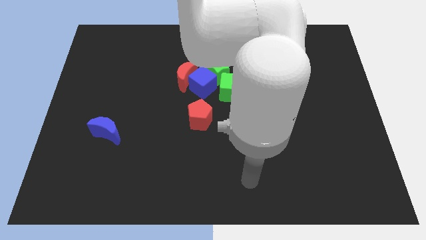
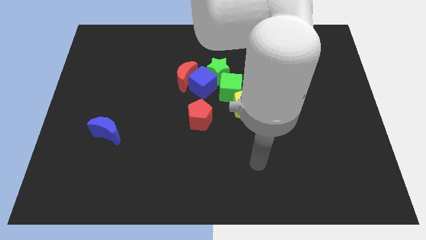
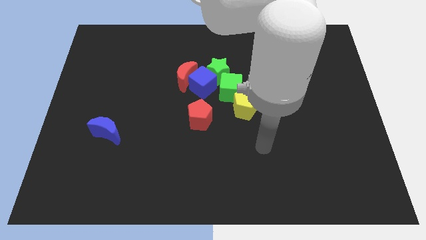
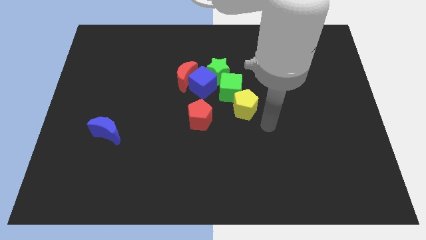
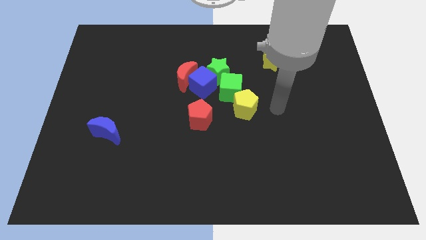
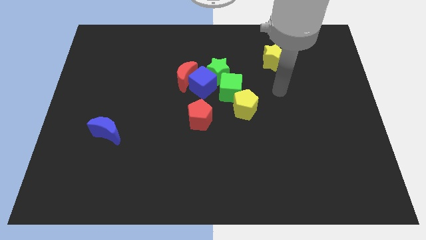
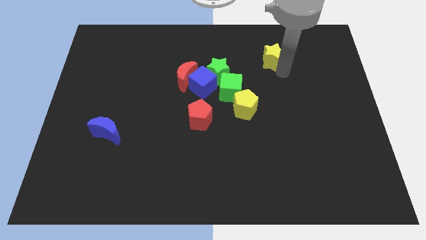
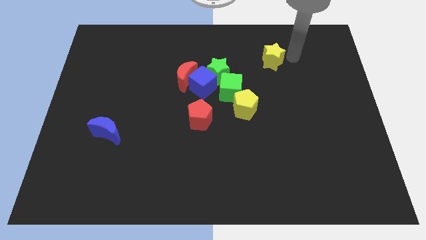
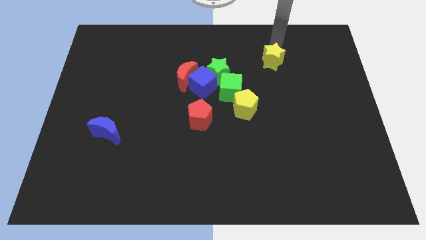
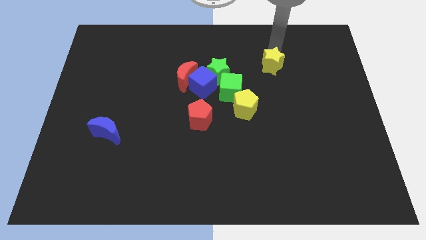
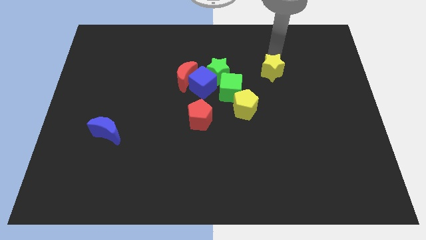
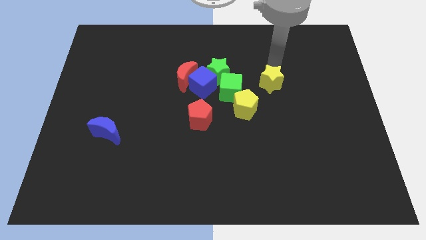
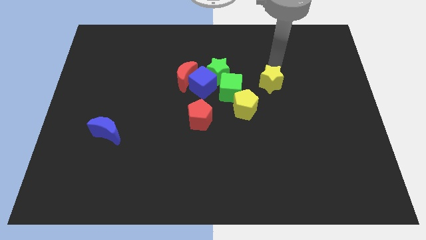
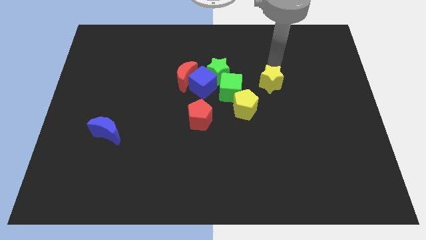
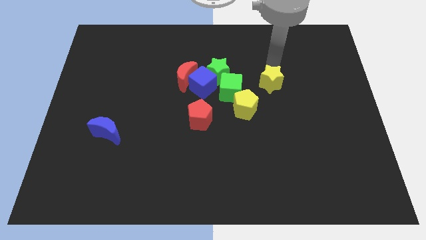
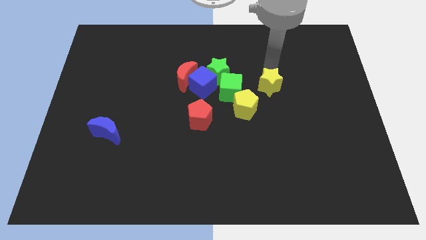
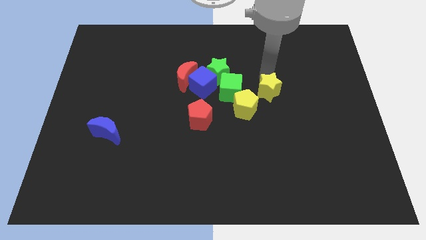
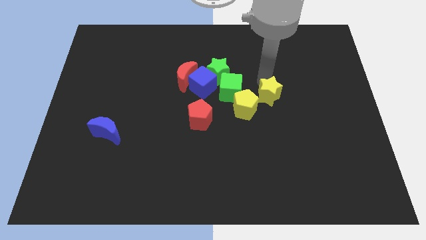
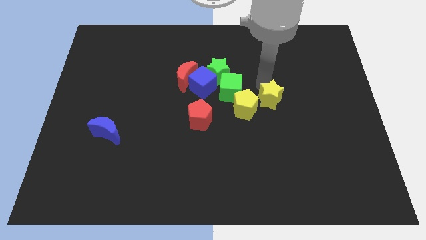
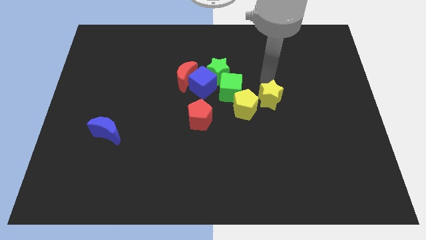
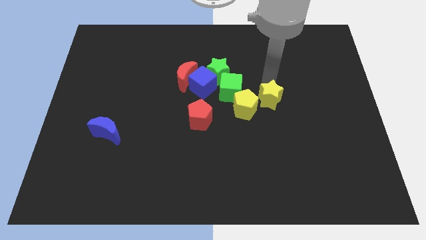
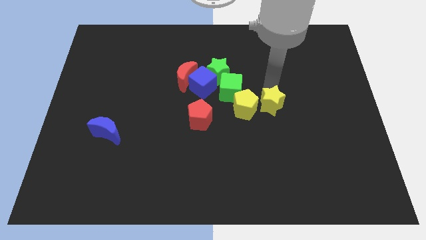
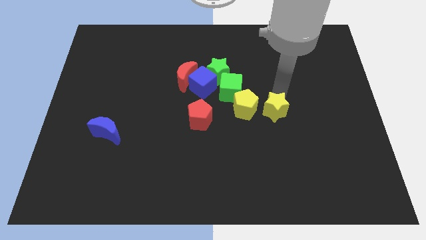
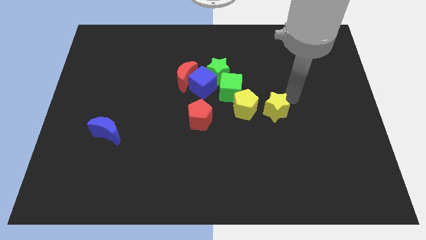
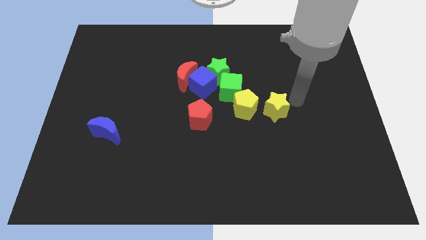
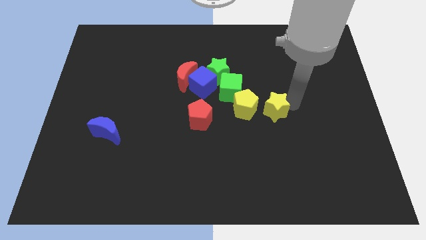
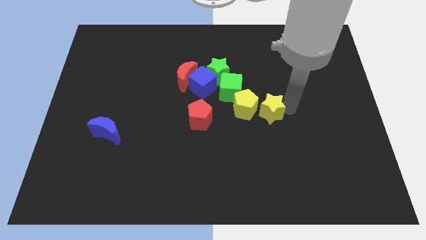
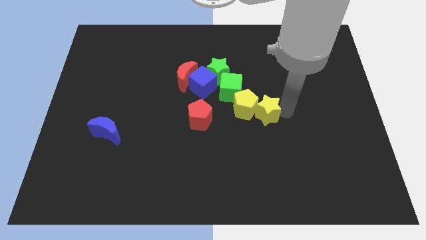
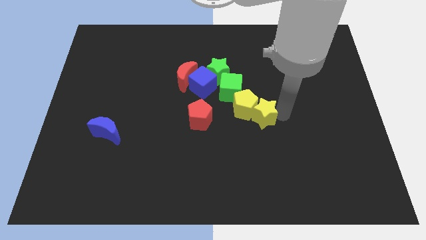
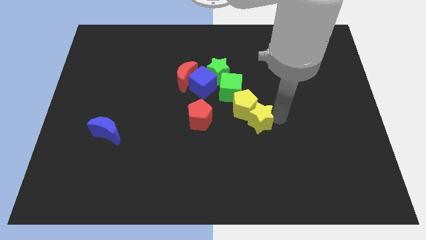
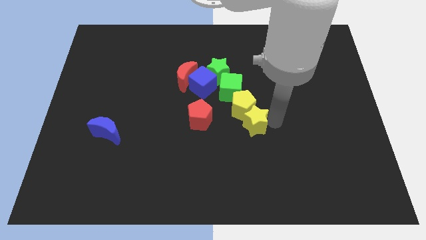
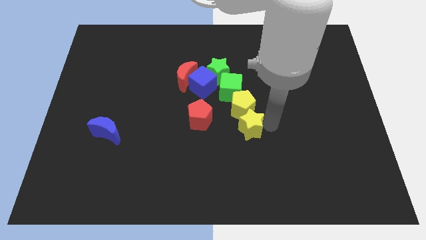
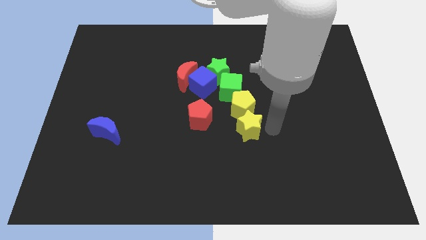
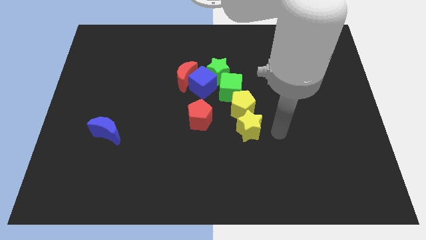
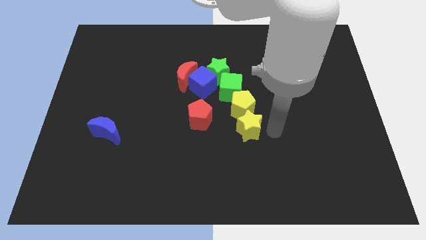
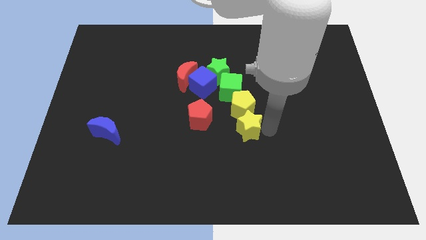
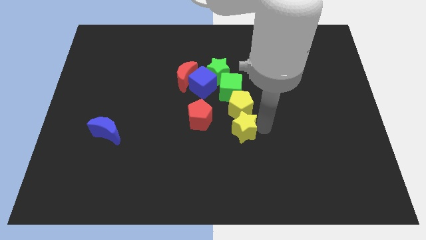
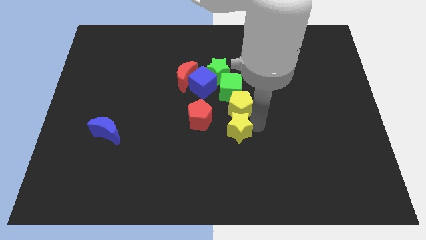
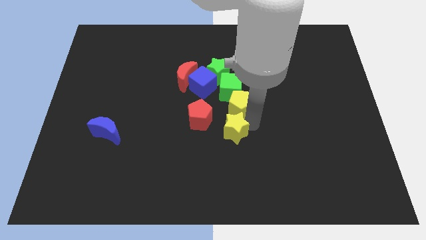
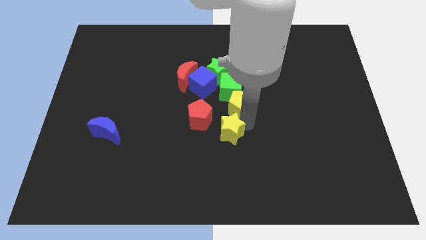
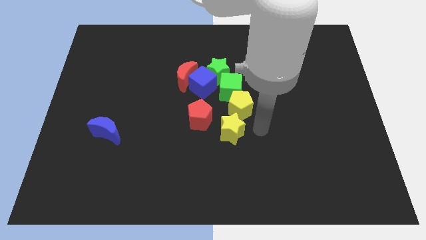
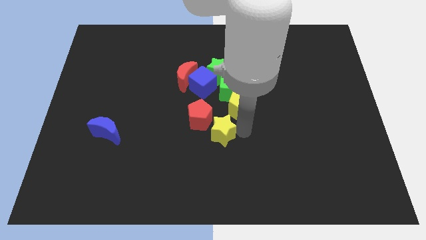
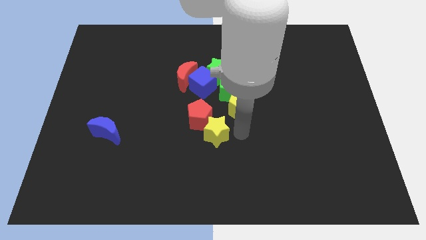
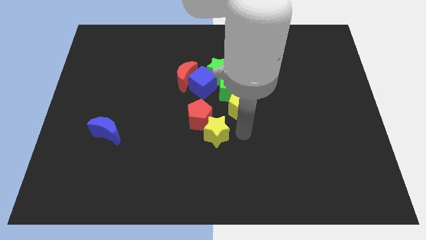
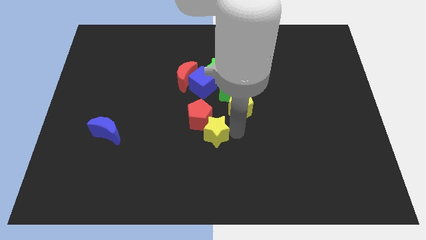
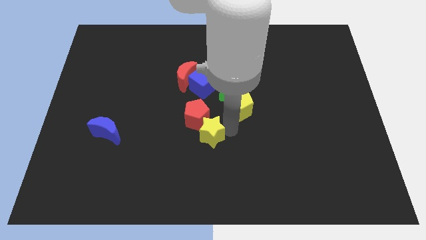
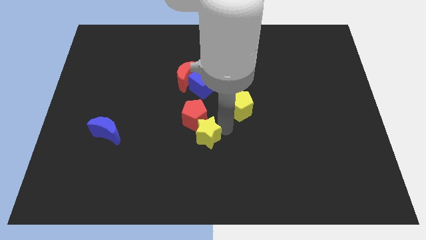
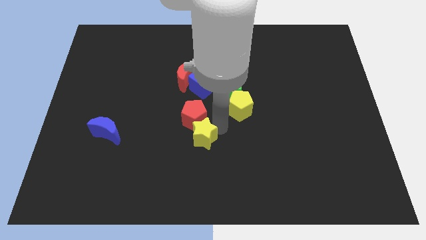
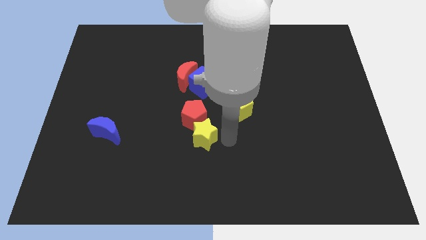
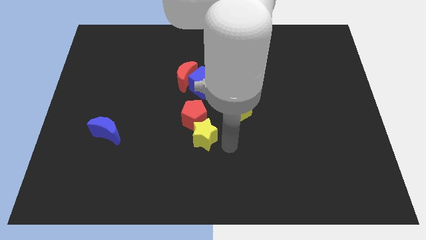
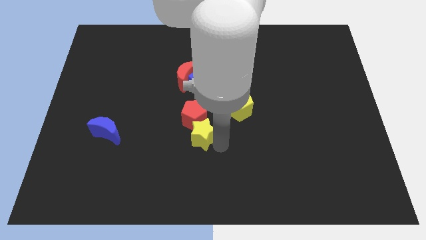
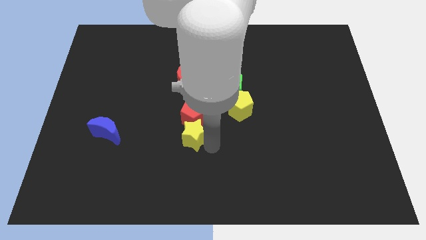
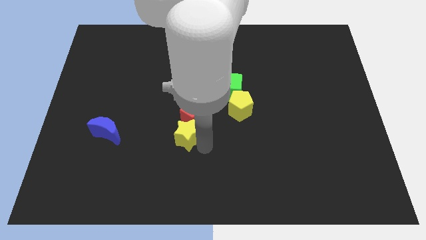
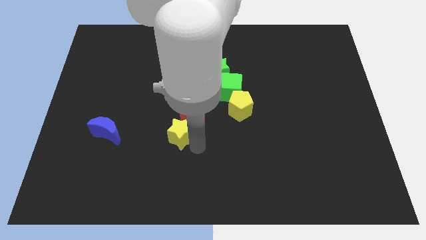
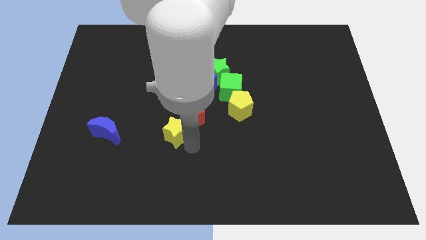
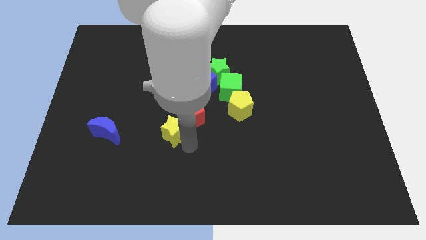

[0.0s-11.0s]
push the yellow star to the left side of the red pentagon

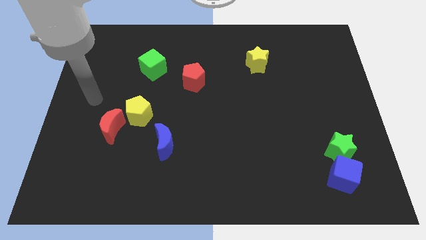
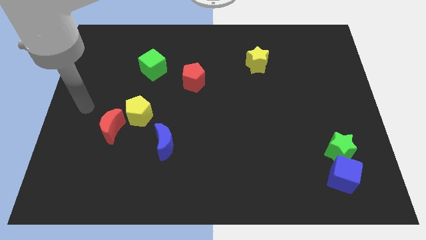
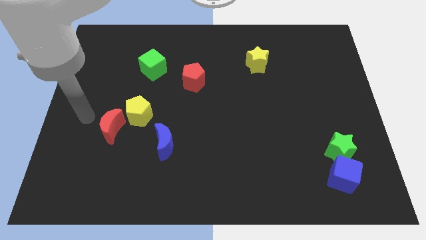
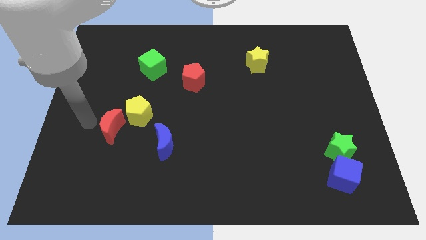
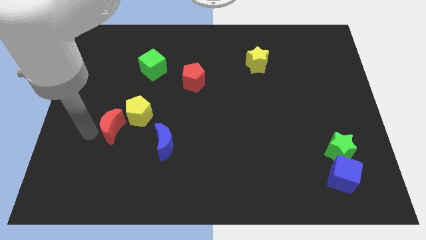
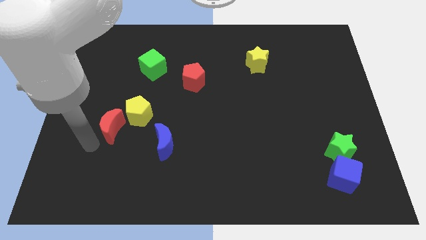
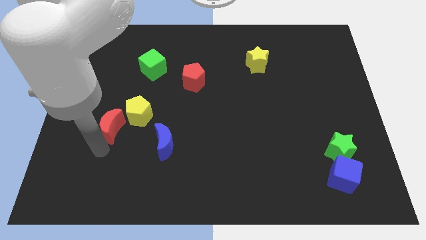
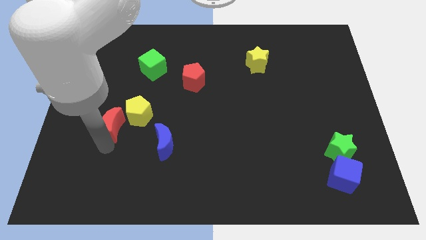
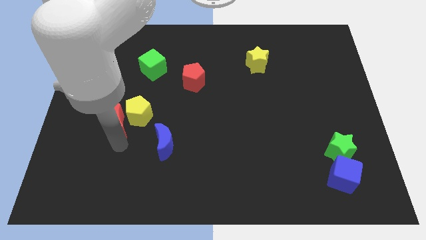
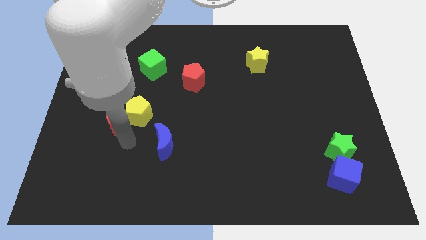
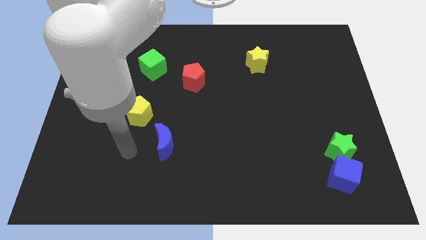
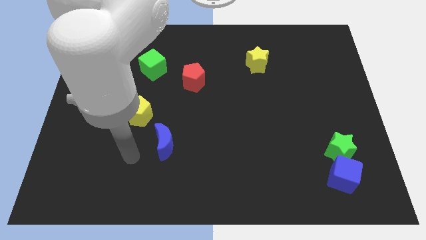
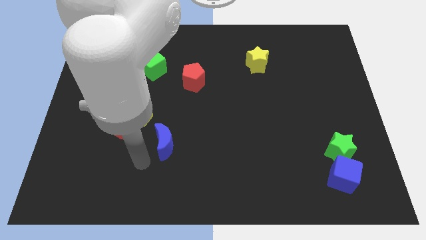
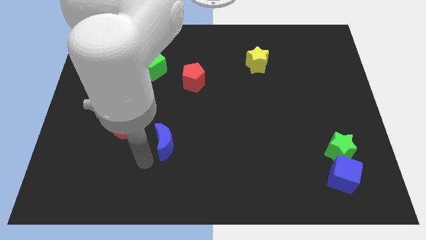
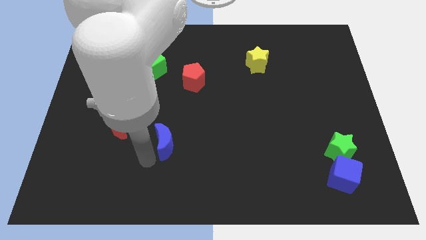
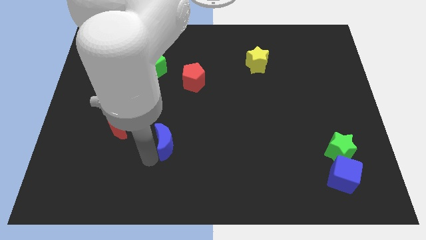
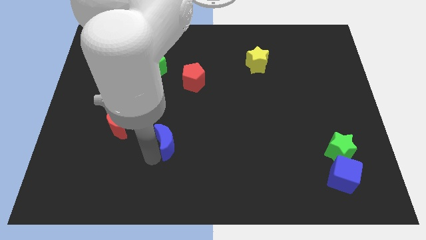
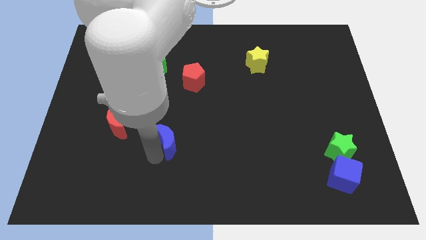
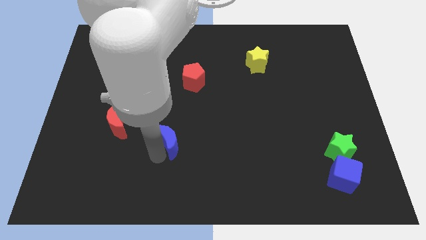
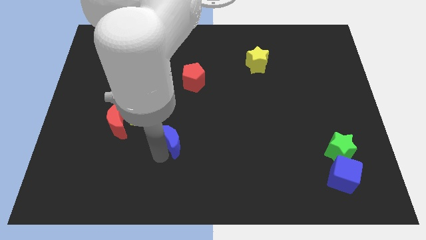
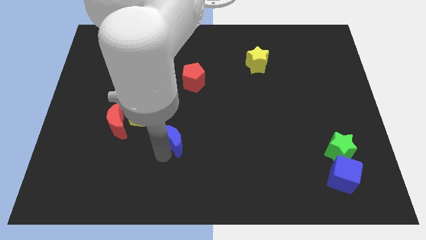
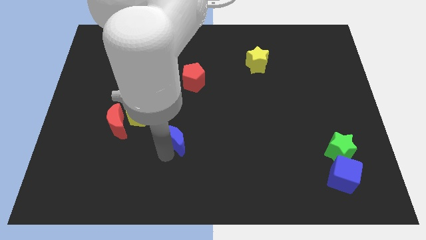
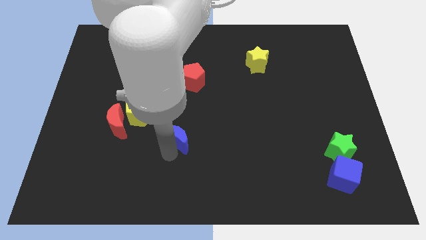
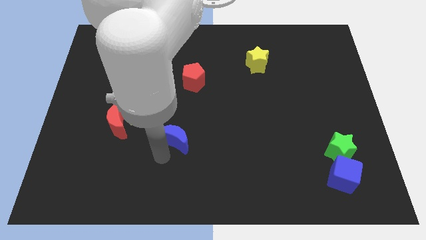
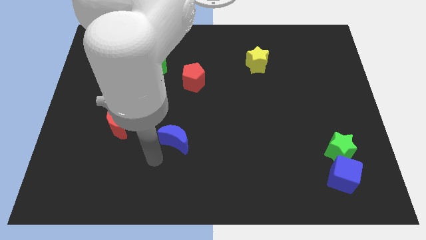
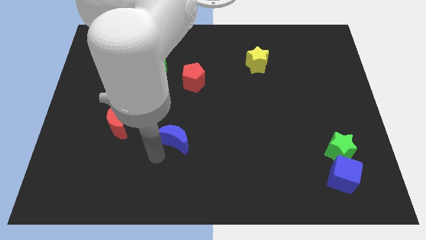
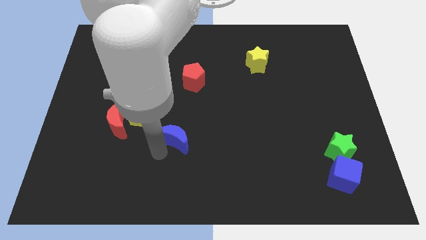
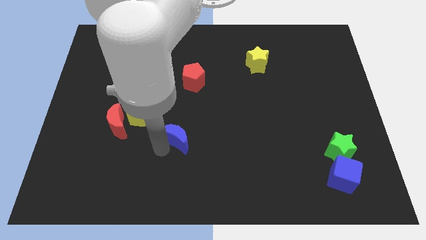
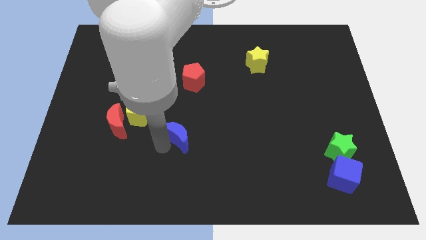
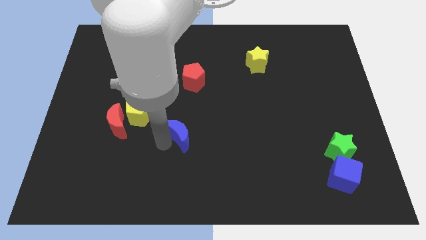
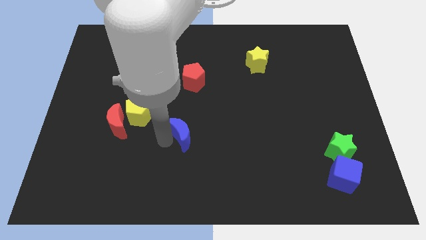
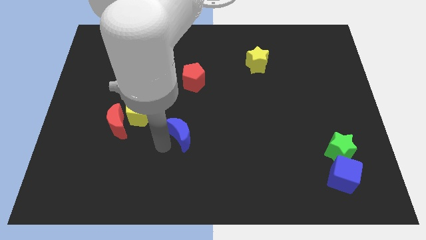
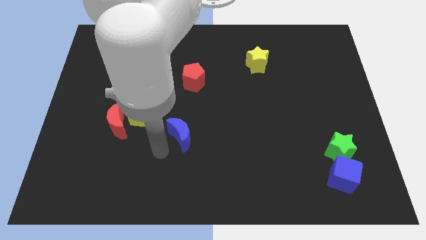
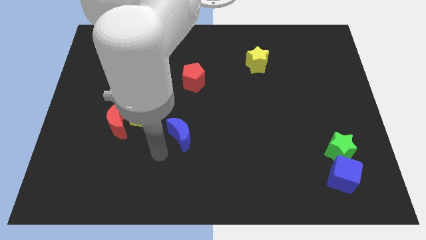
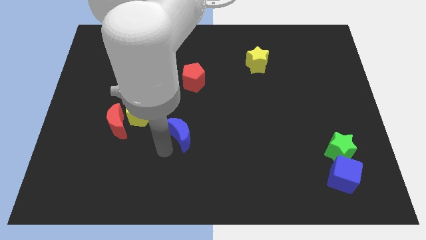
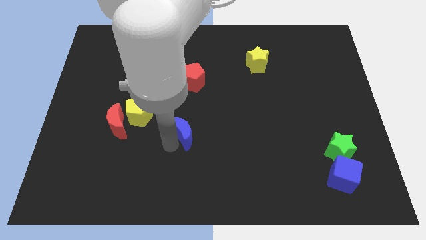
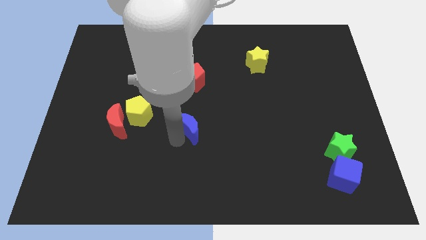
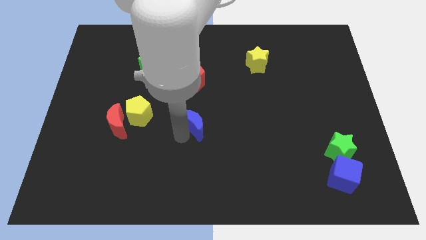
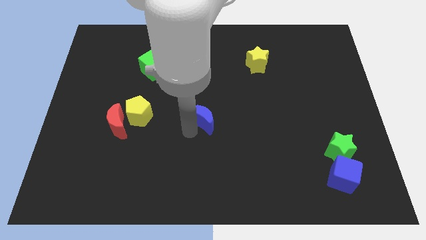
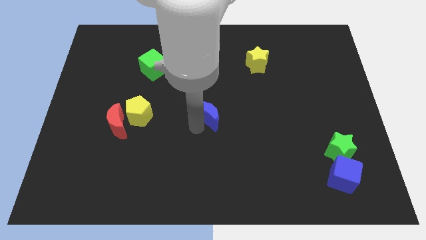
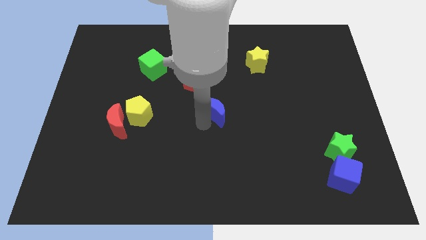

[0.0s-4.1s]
put the blue moon to the bottom right side of the red pentagon
